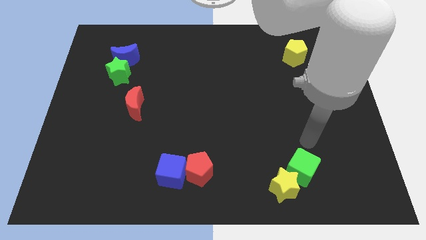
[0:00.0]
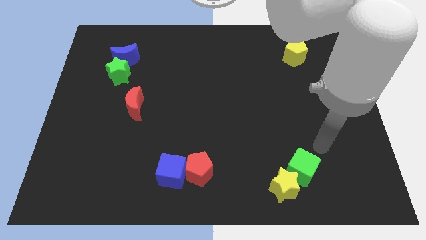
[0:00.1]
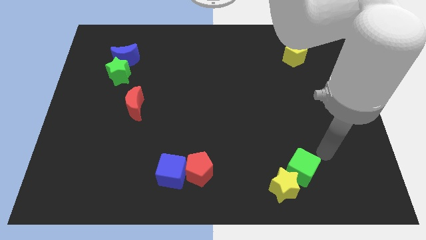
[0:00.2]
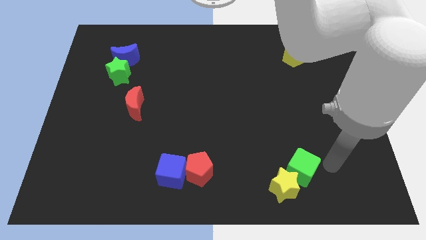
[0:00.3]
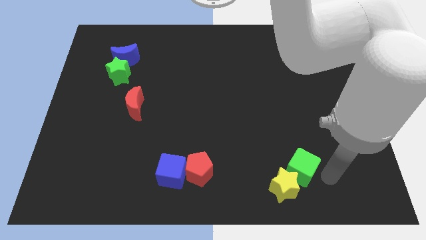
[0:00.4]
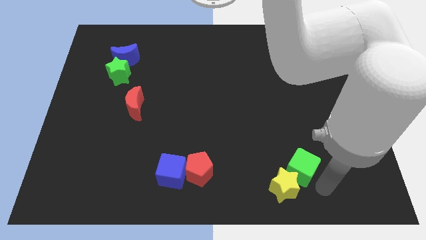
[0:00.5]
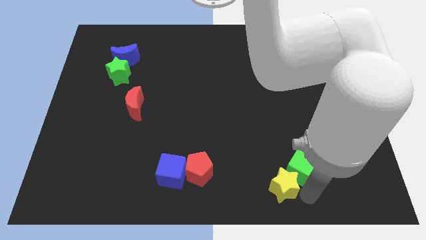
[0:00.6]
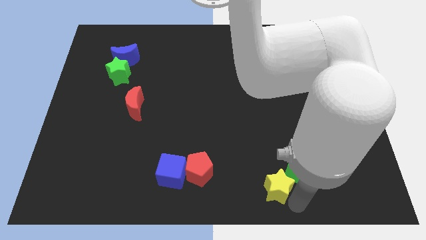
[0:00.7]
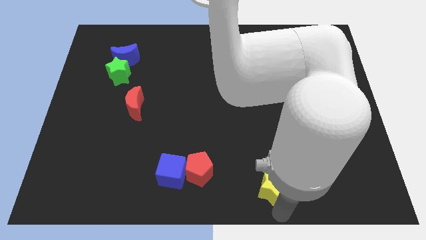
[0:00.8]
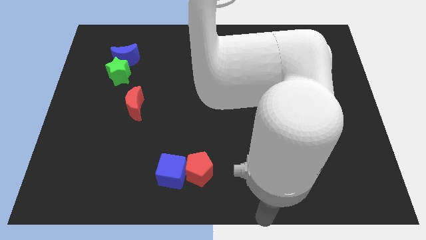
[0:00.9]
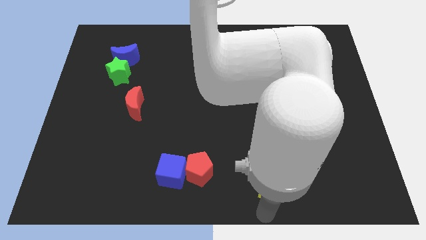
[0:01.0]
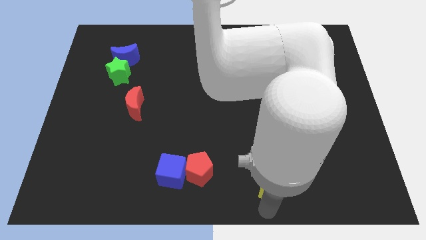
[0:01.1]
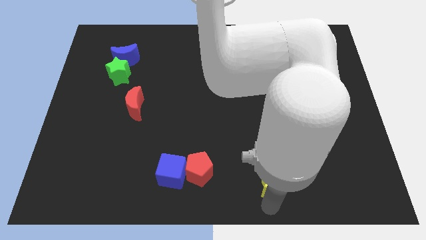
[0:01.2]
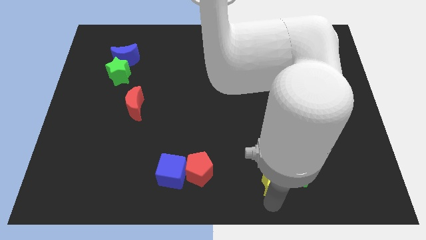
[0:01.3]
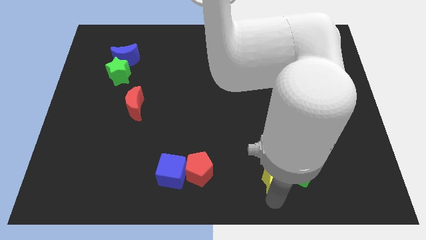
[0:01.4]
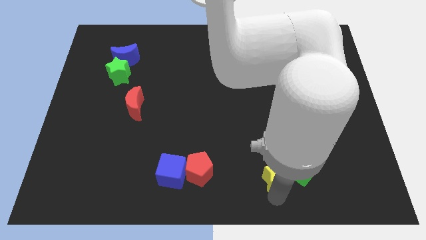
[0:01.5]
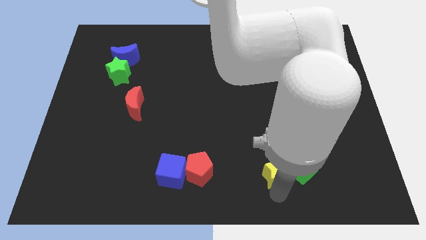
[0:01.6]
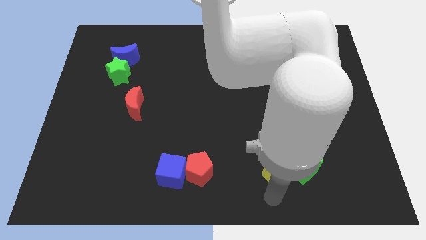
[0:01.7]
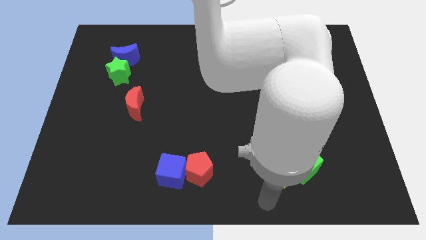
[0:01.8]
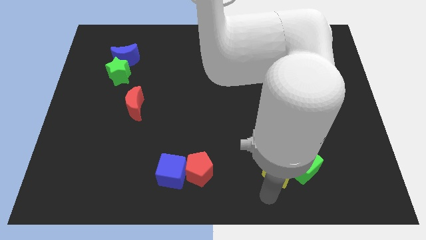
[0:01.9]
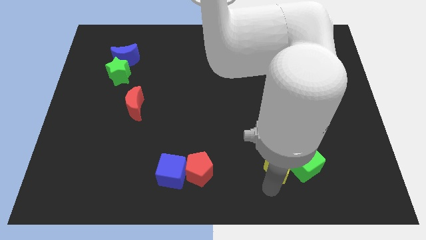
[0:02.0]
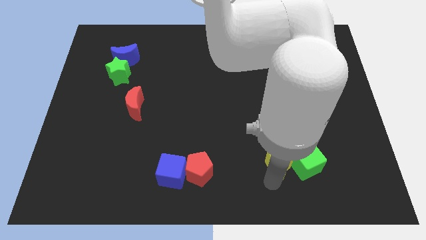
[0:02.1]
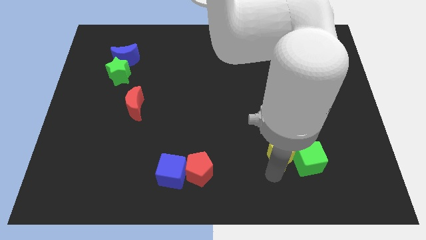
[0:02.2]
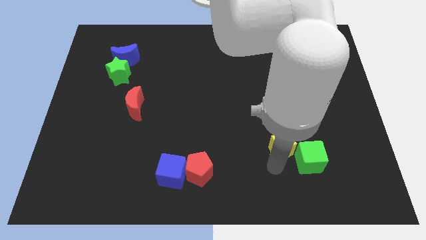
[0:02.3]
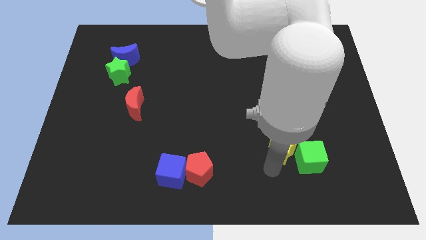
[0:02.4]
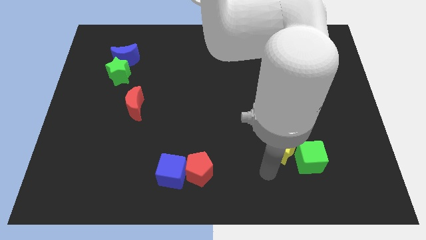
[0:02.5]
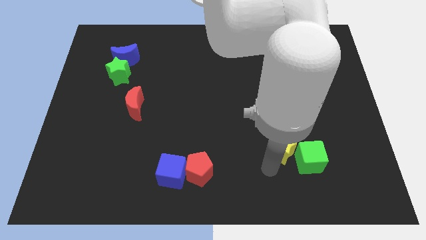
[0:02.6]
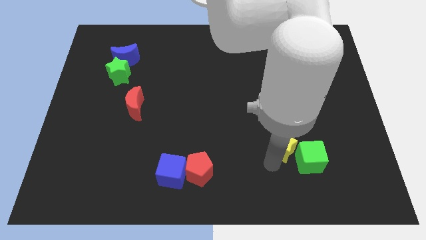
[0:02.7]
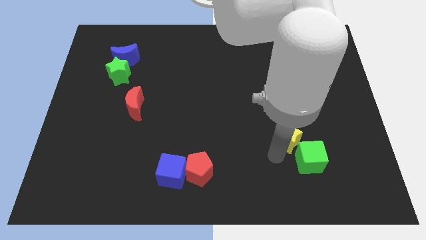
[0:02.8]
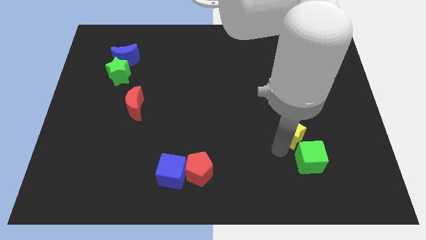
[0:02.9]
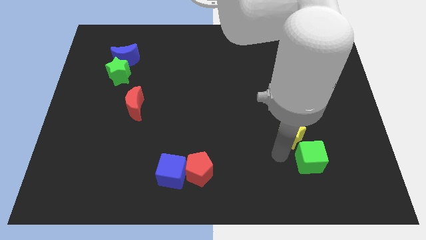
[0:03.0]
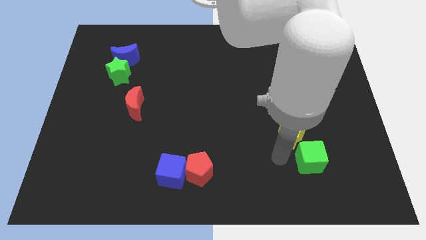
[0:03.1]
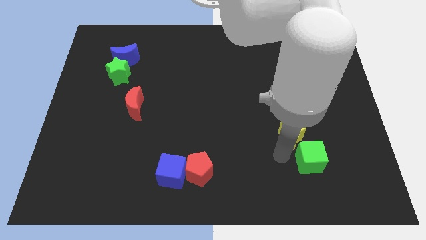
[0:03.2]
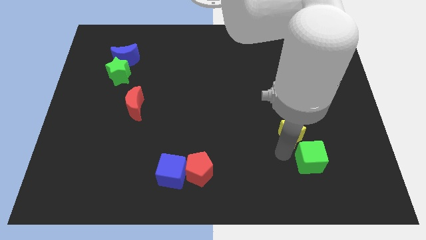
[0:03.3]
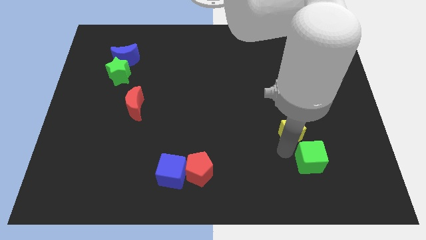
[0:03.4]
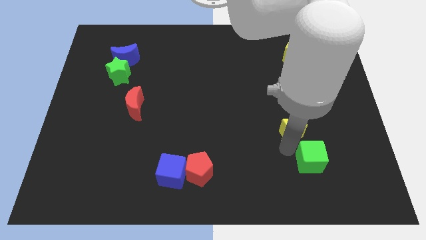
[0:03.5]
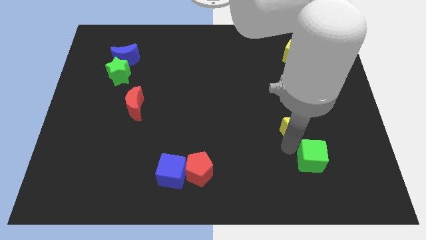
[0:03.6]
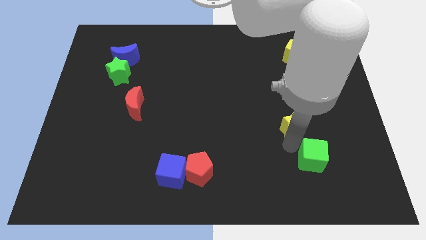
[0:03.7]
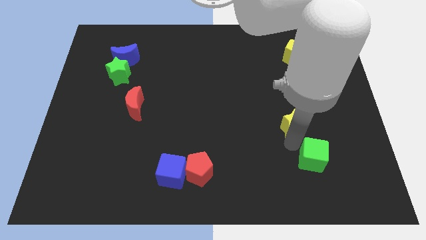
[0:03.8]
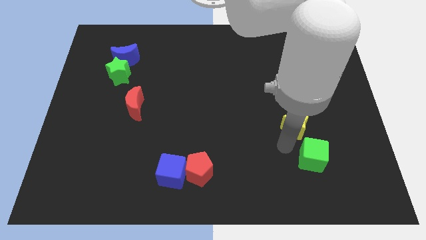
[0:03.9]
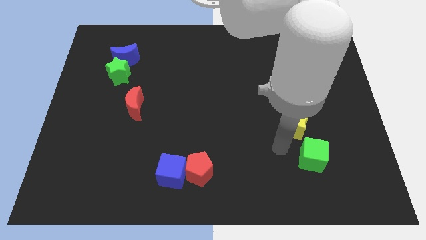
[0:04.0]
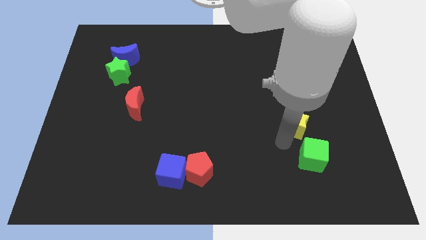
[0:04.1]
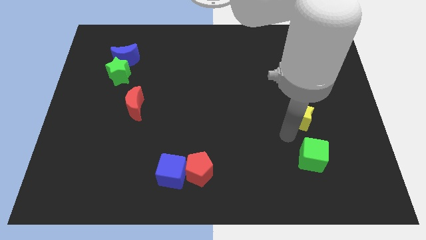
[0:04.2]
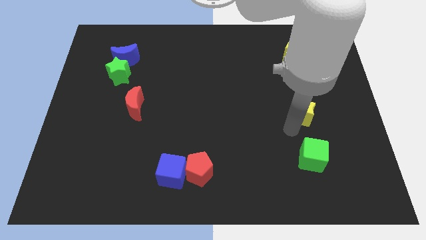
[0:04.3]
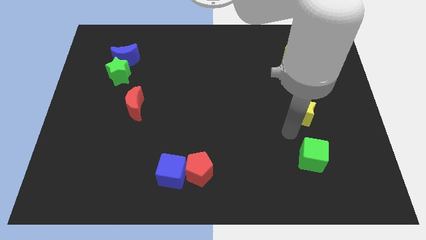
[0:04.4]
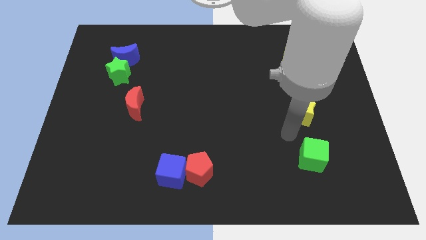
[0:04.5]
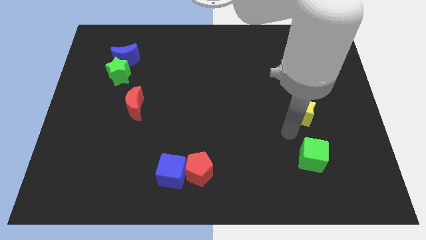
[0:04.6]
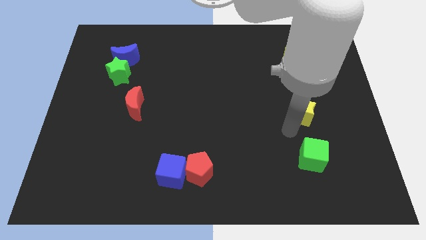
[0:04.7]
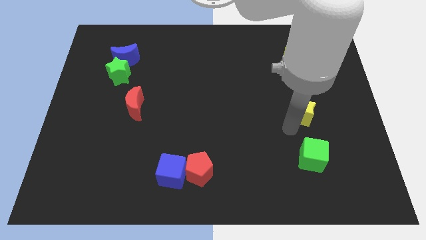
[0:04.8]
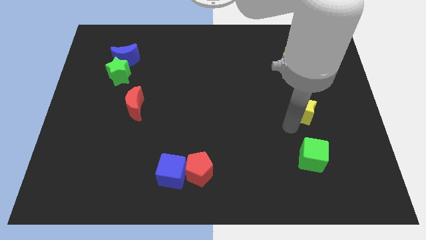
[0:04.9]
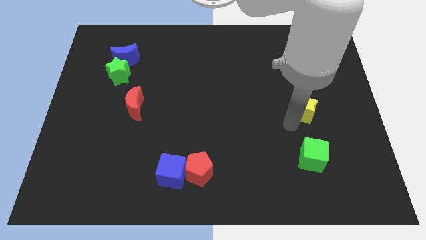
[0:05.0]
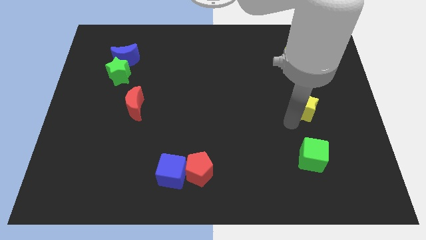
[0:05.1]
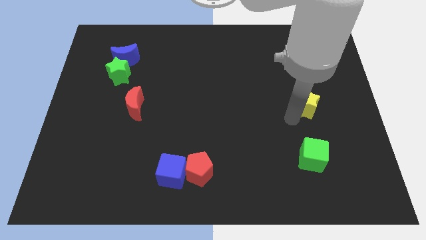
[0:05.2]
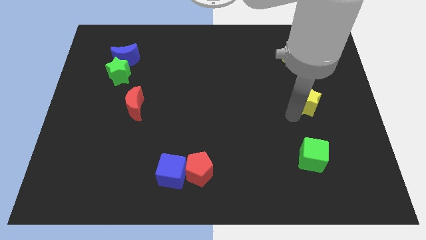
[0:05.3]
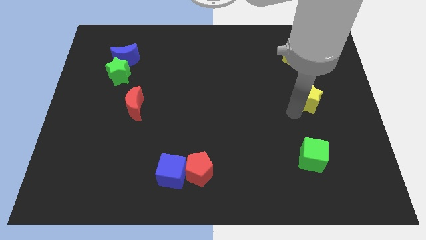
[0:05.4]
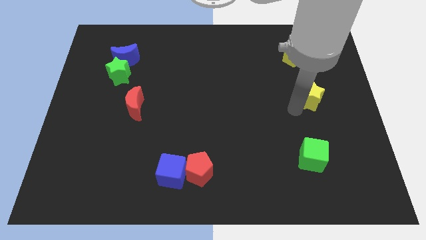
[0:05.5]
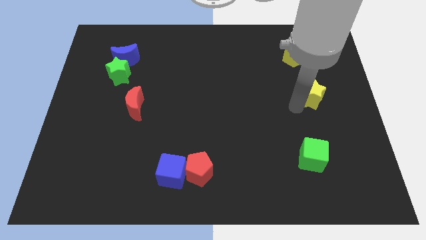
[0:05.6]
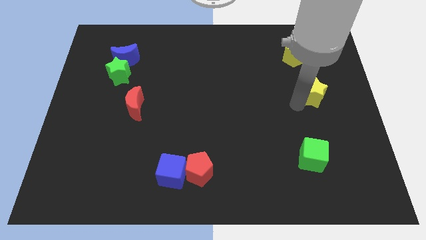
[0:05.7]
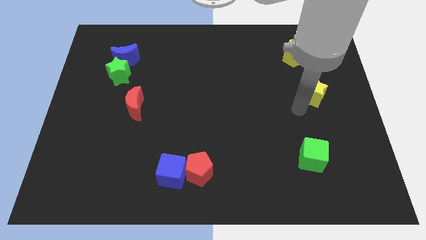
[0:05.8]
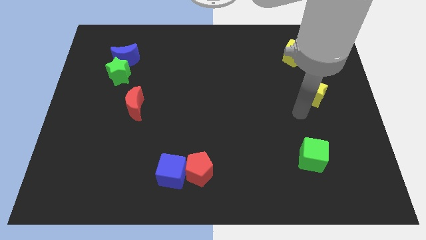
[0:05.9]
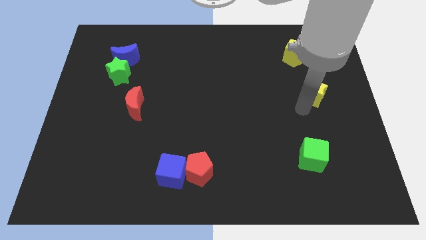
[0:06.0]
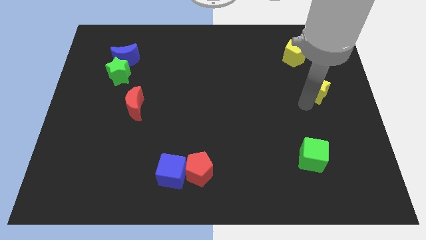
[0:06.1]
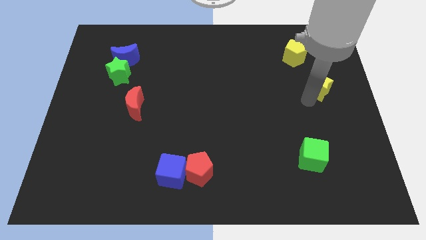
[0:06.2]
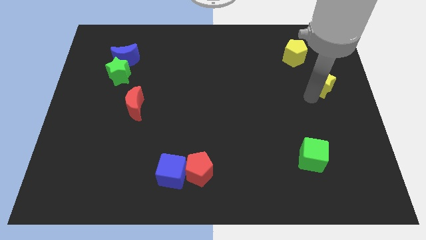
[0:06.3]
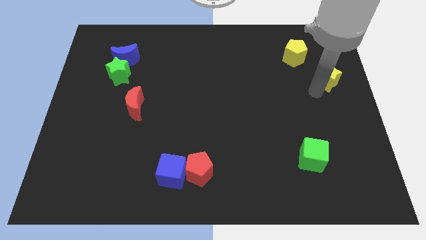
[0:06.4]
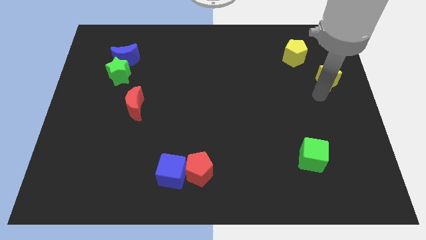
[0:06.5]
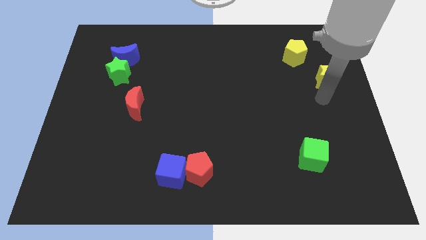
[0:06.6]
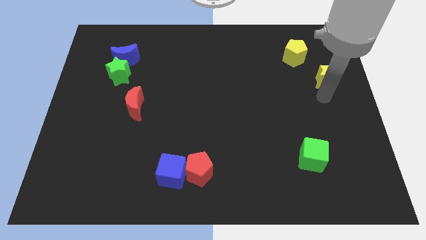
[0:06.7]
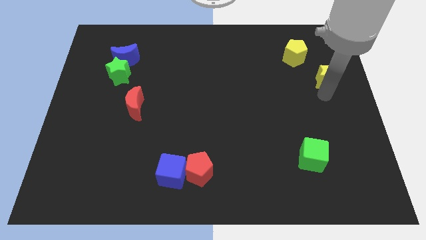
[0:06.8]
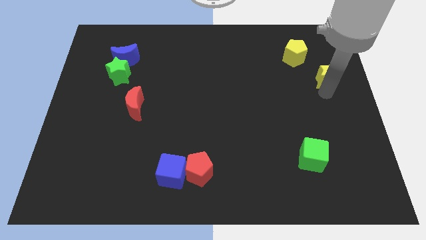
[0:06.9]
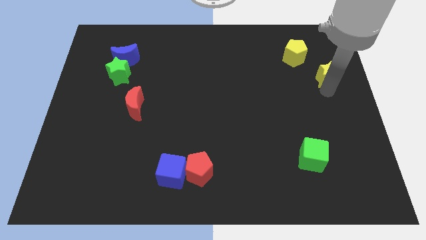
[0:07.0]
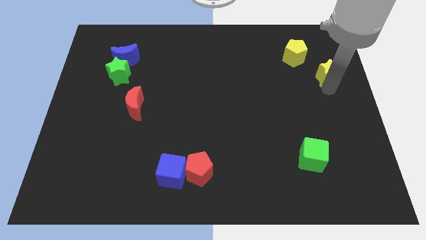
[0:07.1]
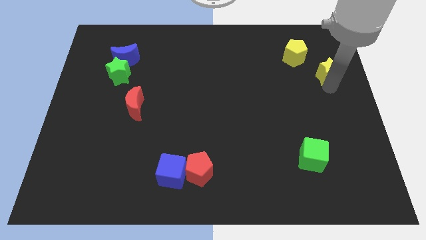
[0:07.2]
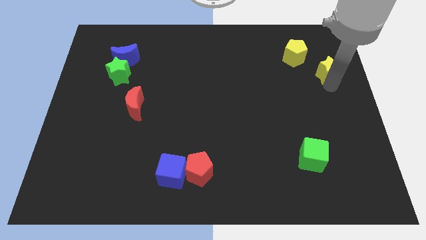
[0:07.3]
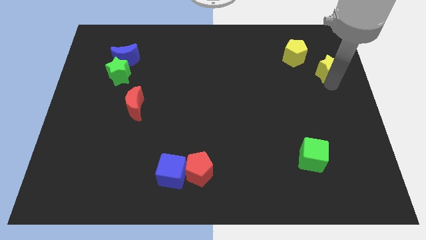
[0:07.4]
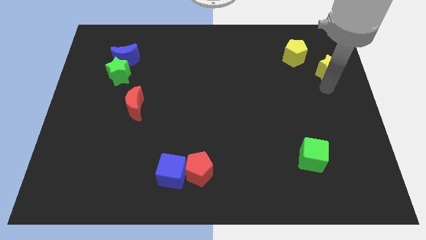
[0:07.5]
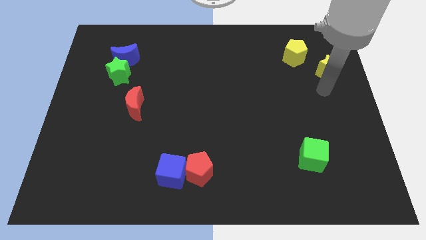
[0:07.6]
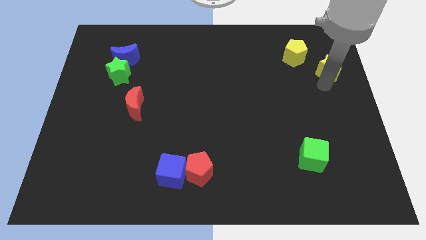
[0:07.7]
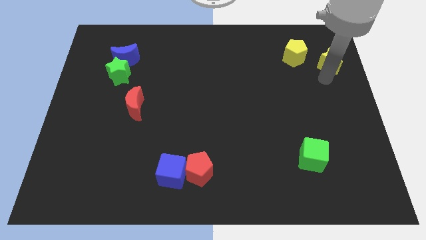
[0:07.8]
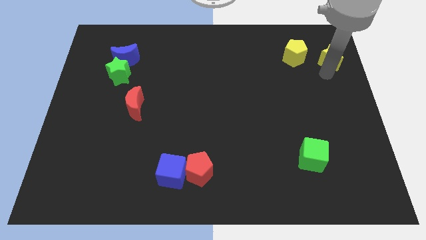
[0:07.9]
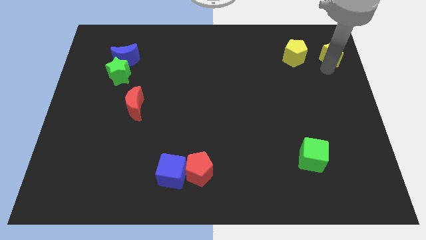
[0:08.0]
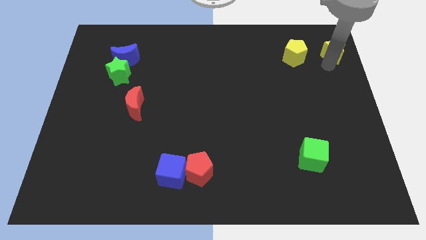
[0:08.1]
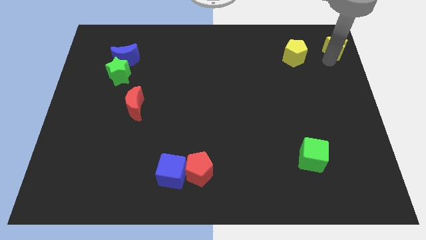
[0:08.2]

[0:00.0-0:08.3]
move the yellow star to the top right of the board
